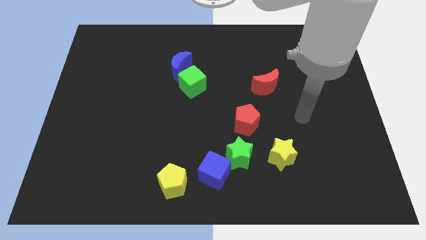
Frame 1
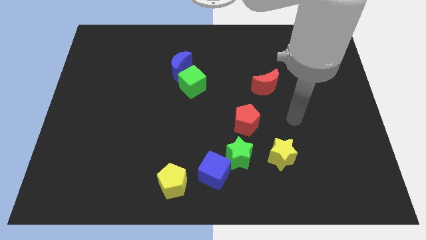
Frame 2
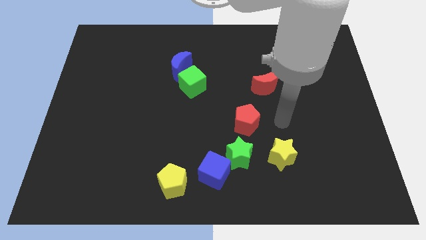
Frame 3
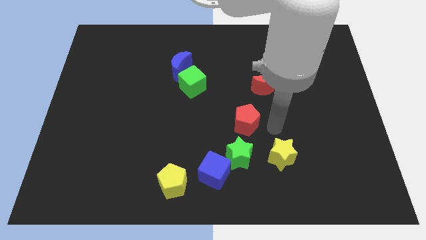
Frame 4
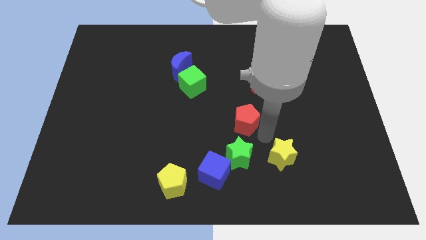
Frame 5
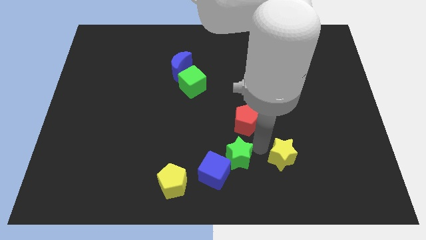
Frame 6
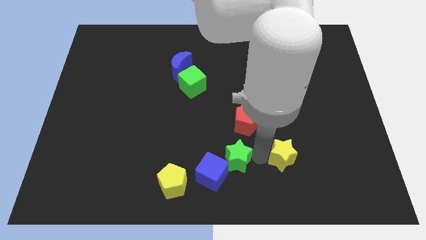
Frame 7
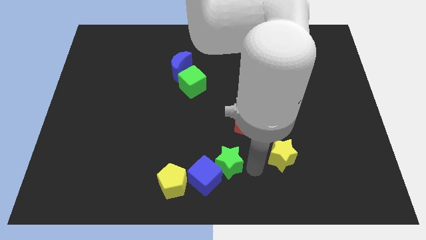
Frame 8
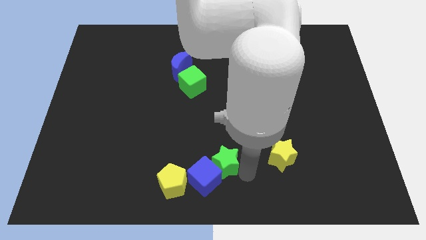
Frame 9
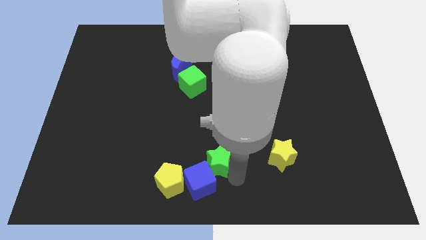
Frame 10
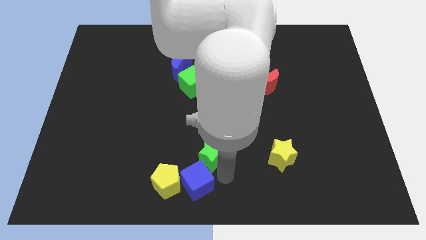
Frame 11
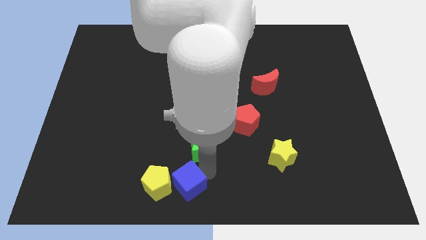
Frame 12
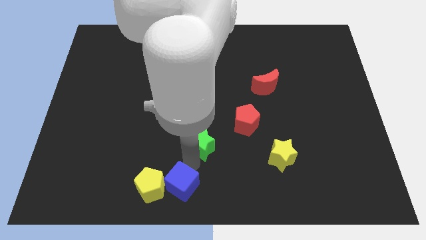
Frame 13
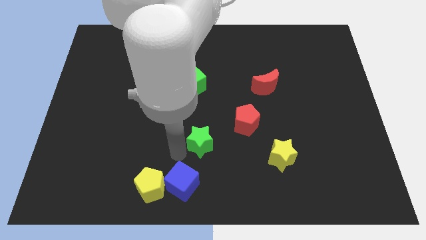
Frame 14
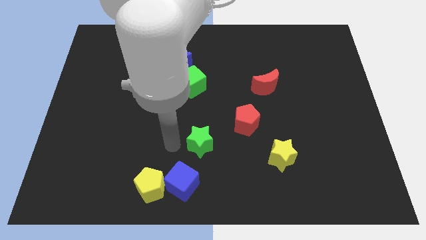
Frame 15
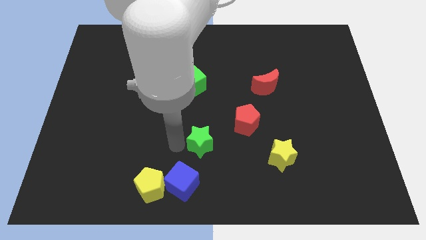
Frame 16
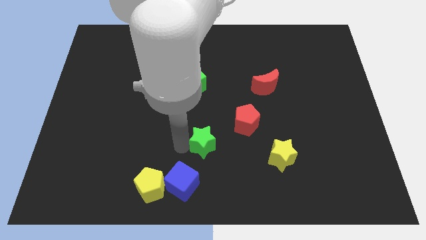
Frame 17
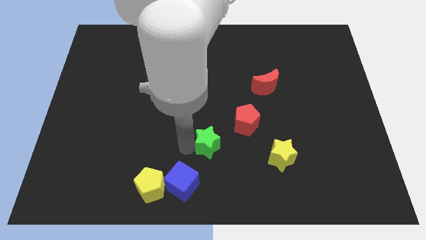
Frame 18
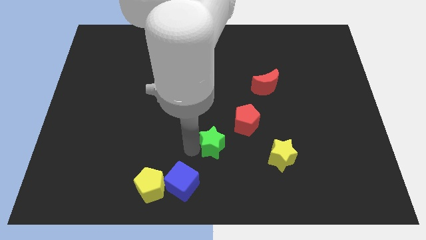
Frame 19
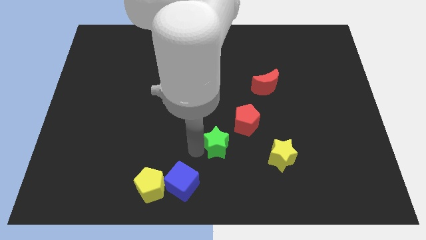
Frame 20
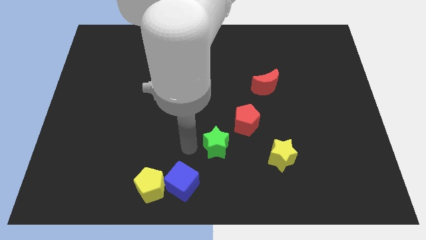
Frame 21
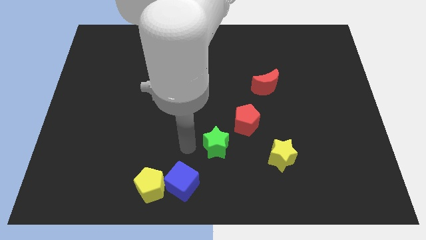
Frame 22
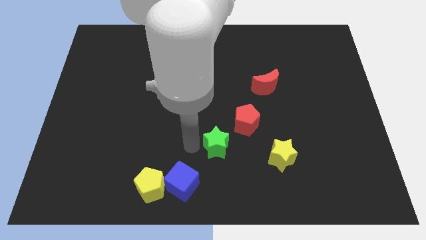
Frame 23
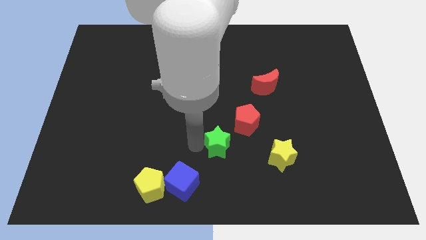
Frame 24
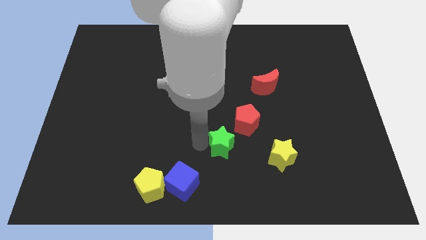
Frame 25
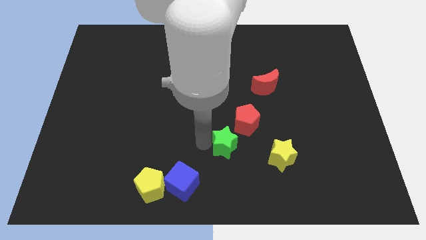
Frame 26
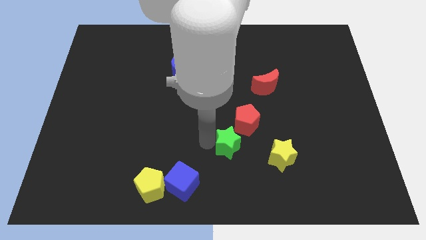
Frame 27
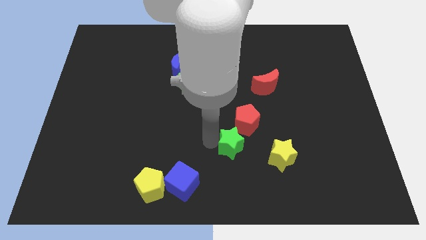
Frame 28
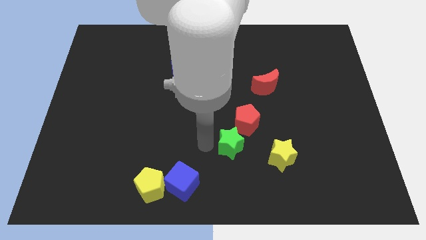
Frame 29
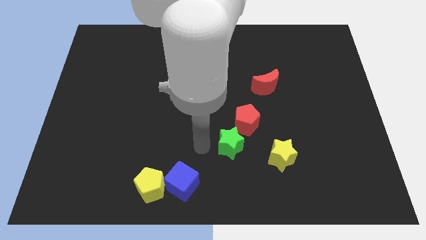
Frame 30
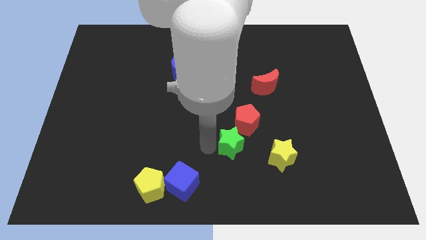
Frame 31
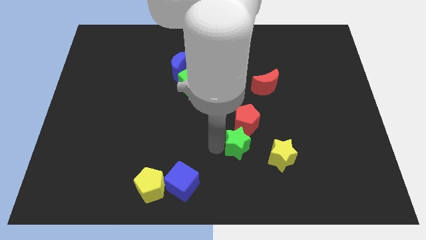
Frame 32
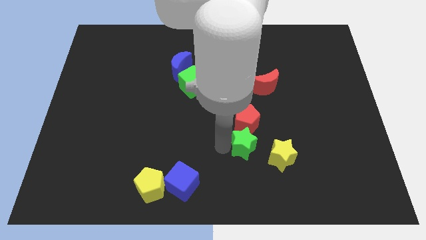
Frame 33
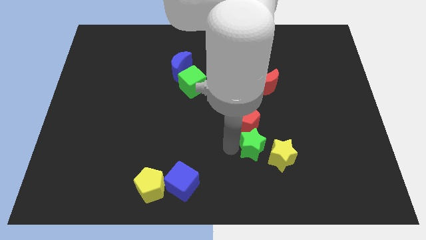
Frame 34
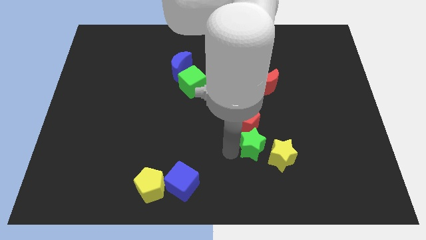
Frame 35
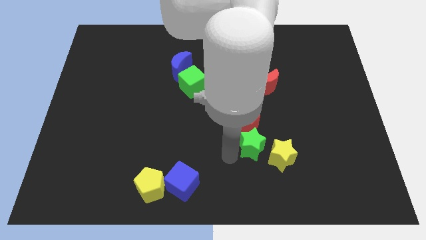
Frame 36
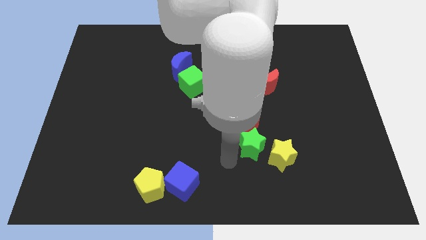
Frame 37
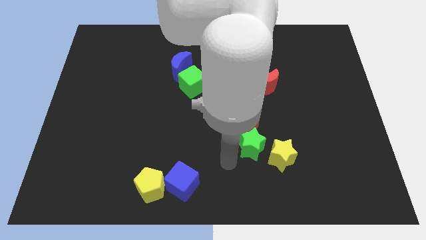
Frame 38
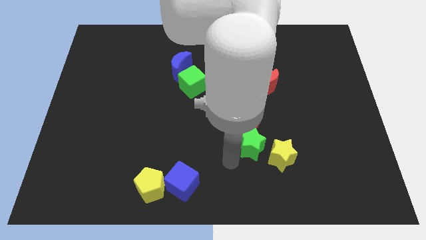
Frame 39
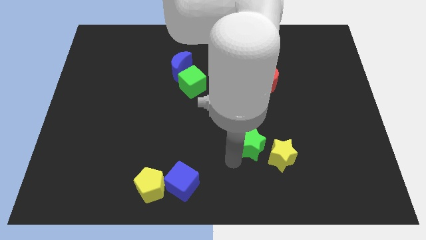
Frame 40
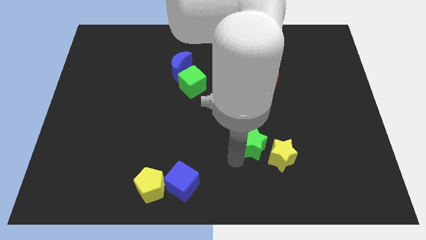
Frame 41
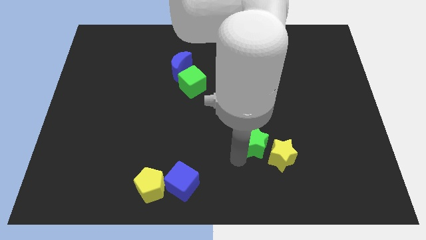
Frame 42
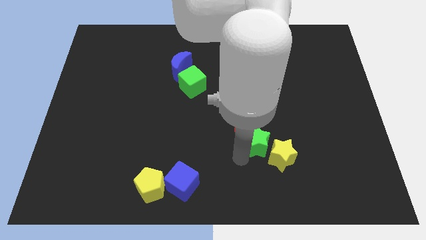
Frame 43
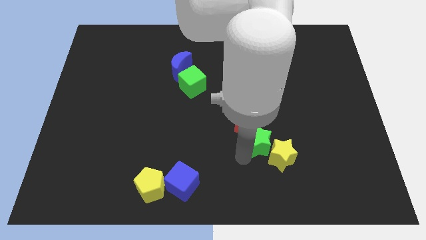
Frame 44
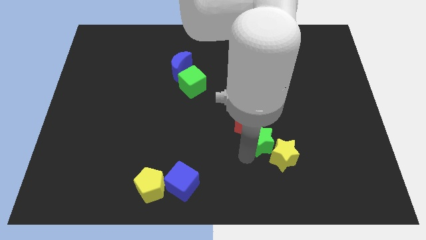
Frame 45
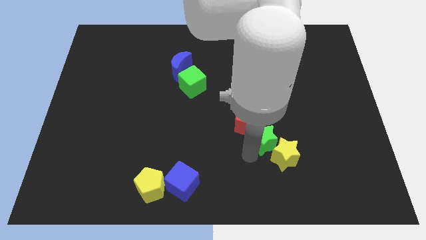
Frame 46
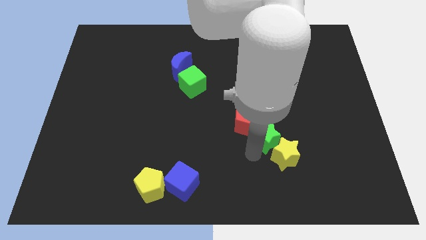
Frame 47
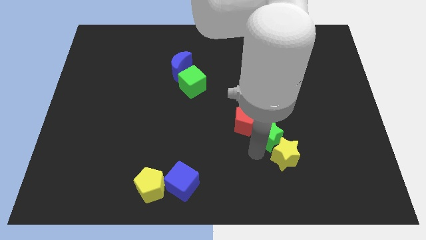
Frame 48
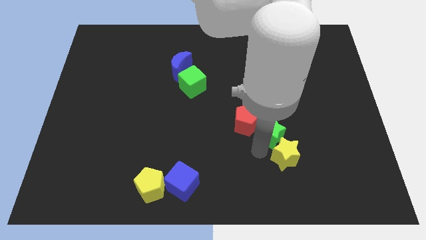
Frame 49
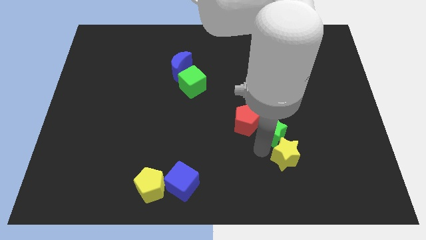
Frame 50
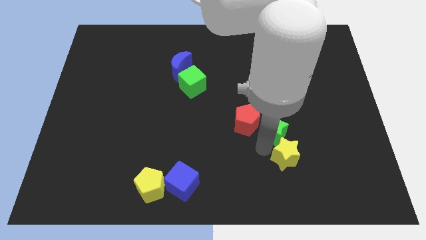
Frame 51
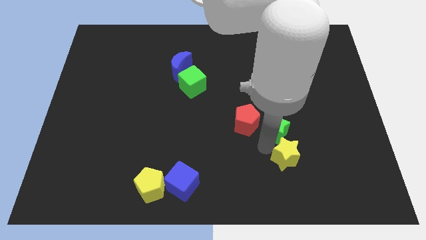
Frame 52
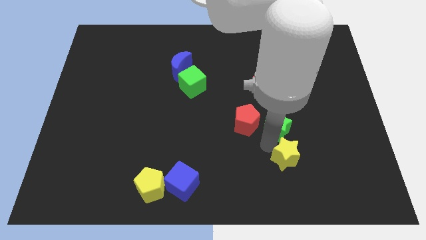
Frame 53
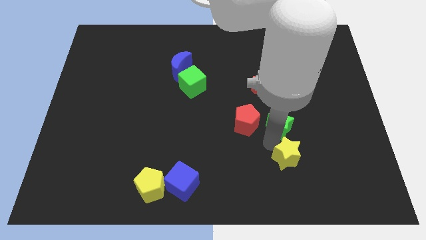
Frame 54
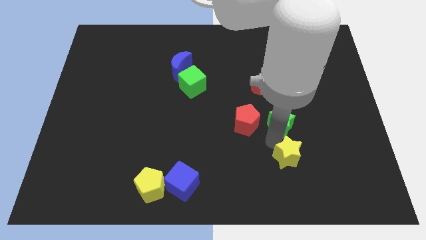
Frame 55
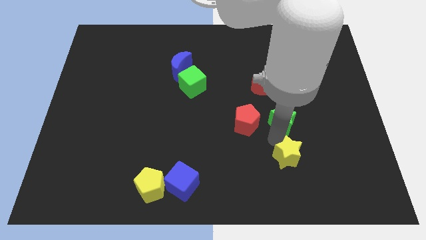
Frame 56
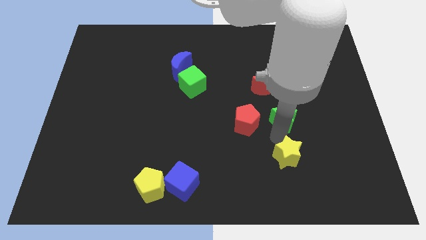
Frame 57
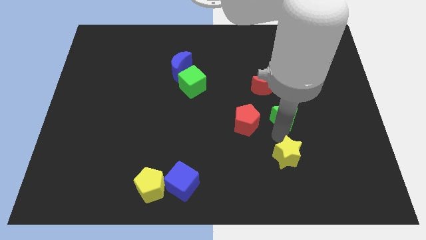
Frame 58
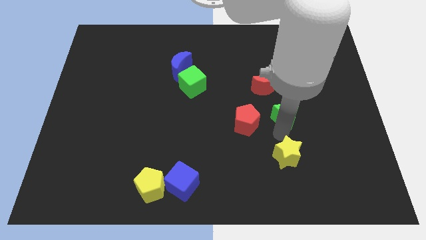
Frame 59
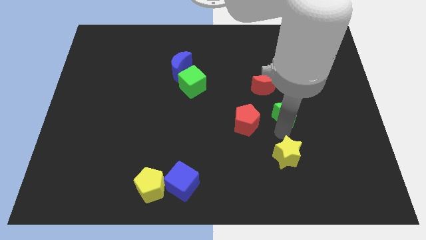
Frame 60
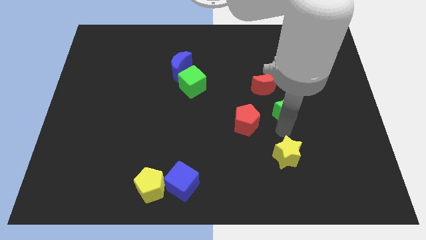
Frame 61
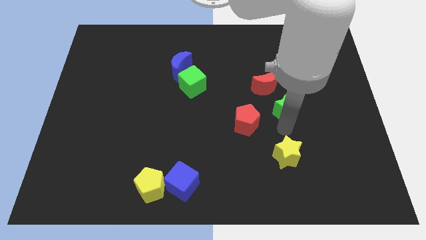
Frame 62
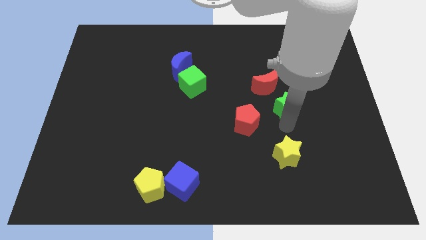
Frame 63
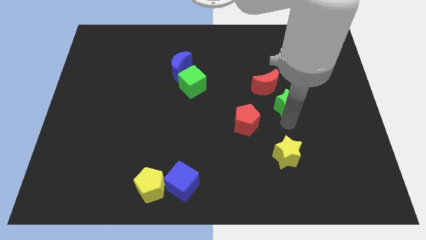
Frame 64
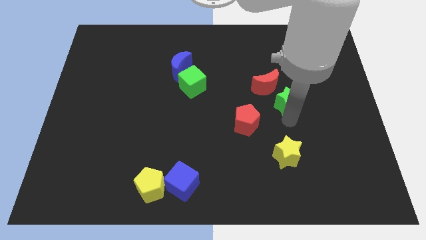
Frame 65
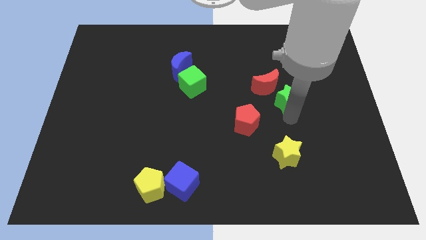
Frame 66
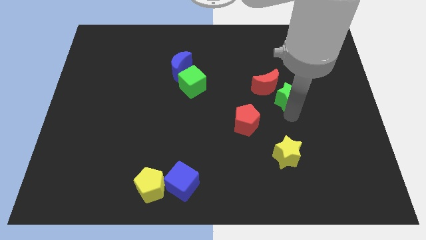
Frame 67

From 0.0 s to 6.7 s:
push the green star towards the red moon

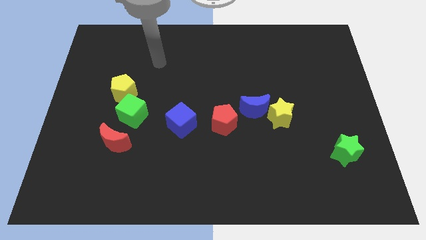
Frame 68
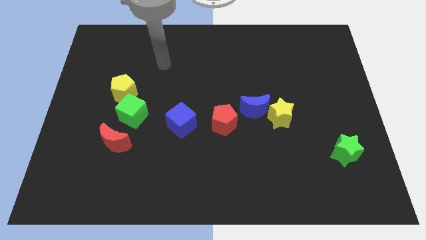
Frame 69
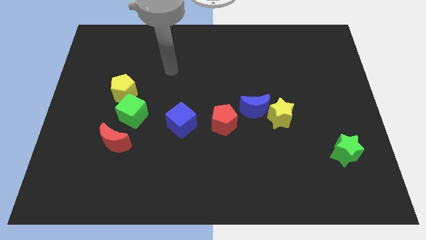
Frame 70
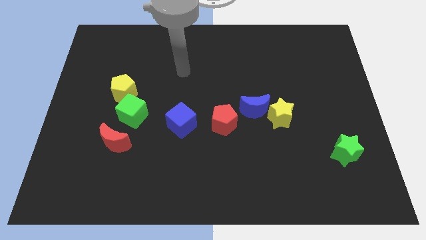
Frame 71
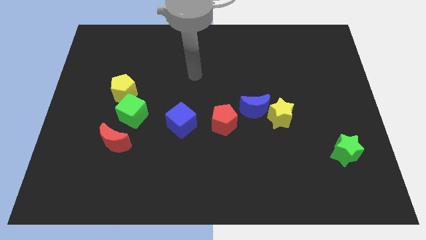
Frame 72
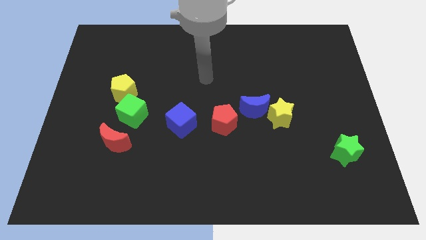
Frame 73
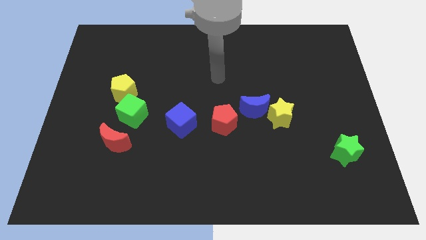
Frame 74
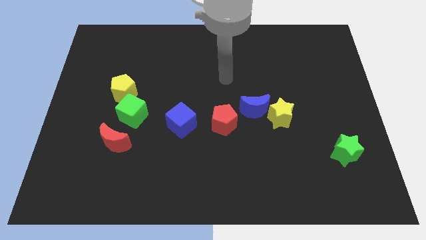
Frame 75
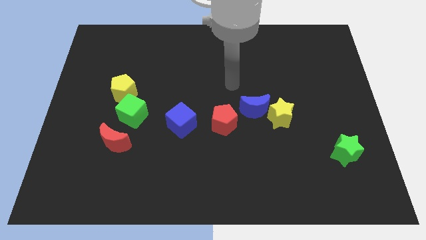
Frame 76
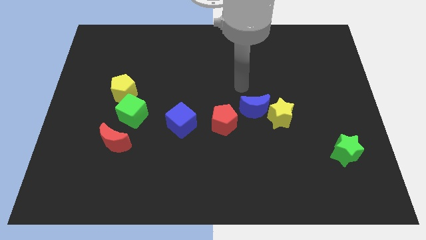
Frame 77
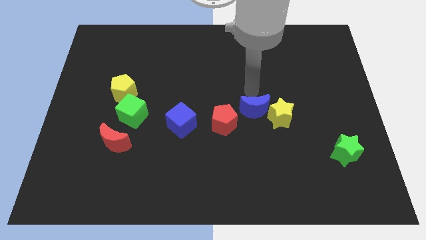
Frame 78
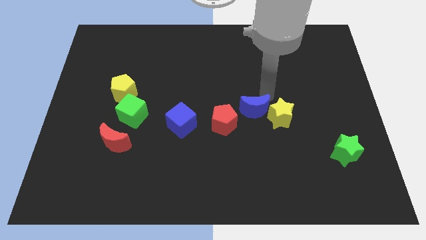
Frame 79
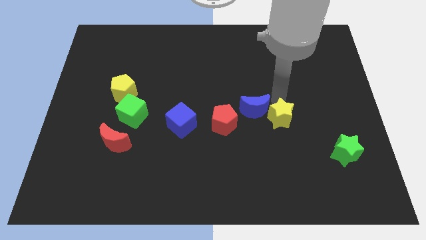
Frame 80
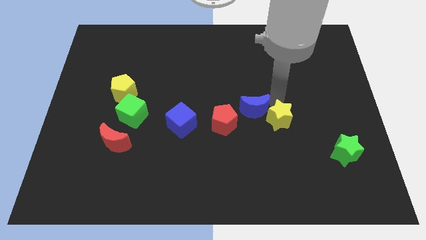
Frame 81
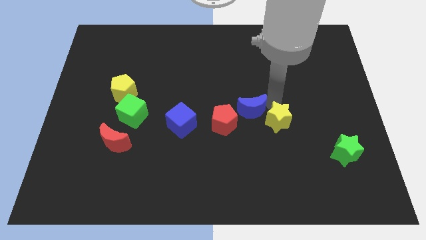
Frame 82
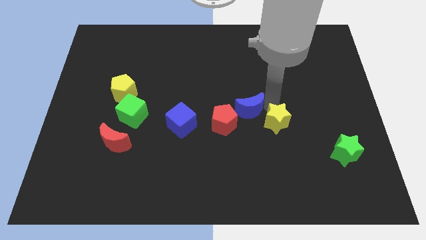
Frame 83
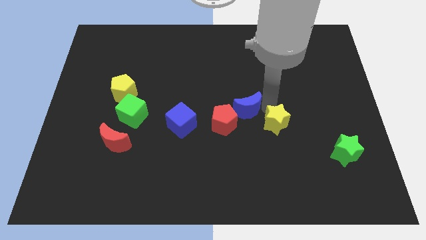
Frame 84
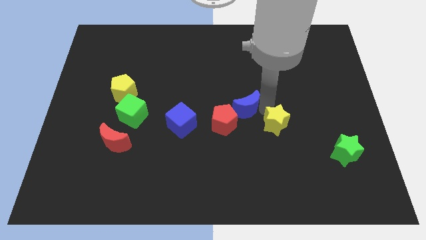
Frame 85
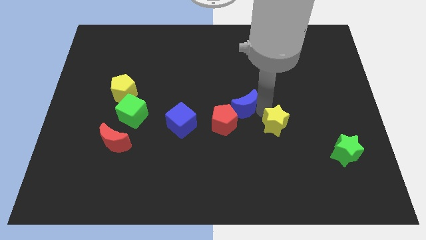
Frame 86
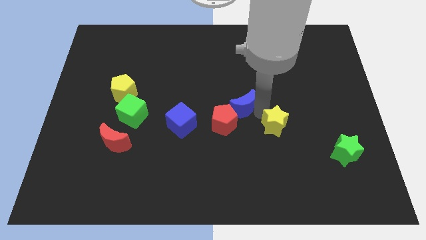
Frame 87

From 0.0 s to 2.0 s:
move the blue moon close to the red pentagon
